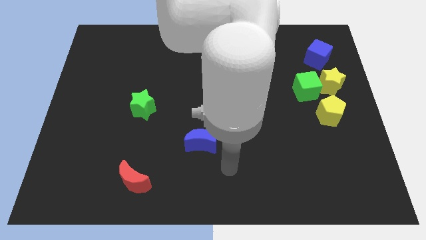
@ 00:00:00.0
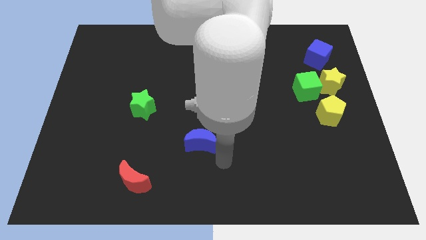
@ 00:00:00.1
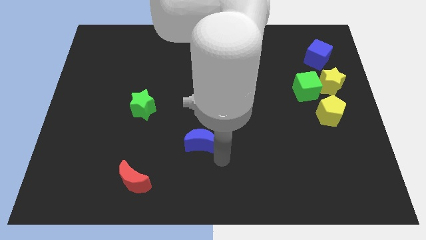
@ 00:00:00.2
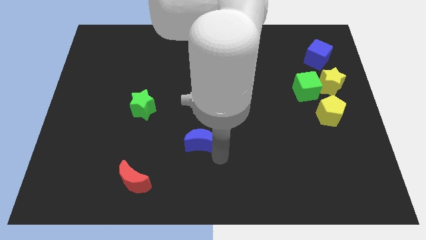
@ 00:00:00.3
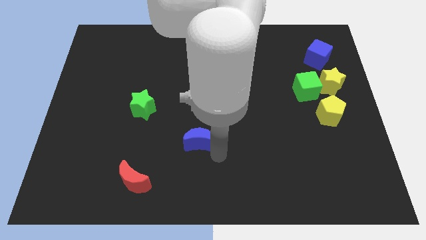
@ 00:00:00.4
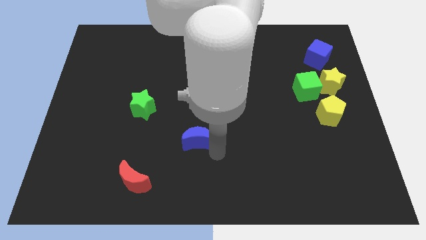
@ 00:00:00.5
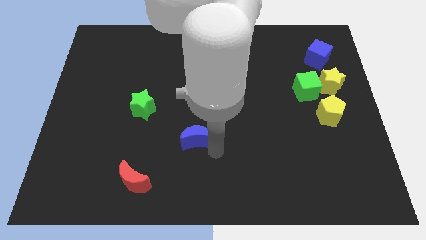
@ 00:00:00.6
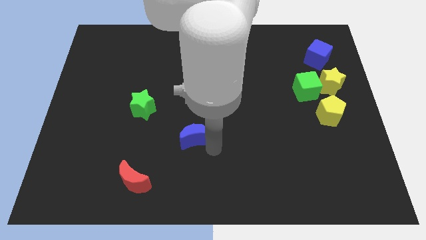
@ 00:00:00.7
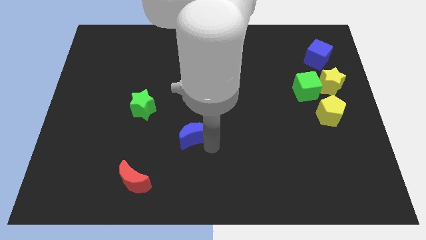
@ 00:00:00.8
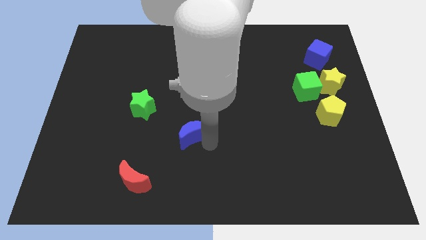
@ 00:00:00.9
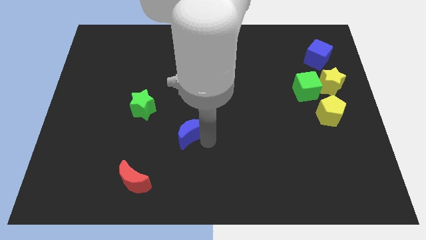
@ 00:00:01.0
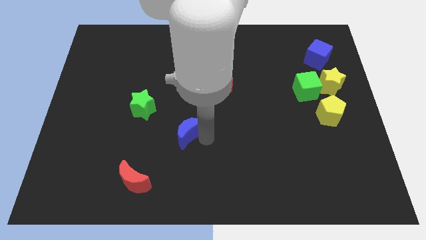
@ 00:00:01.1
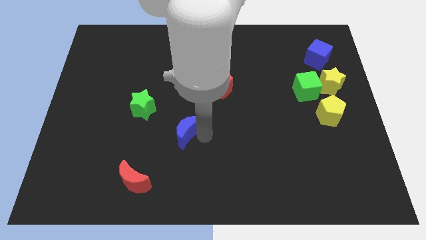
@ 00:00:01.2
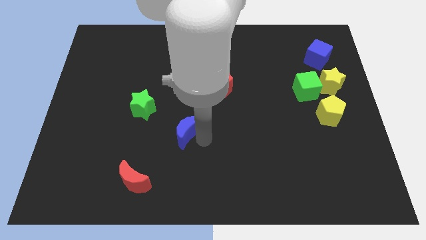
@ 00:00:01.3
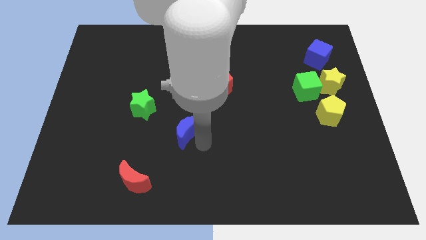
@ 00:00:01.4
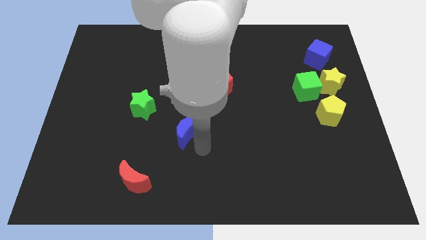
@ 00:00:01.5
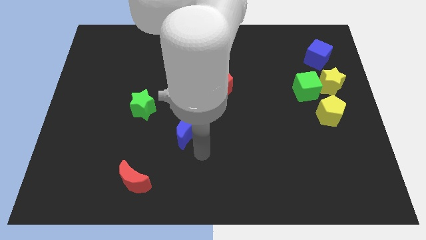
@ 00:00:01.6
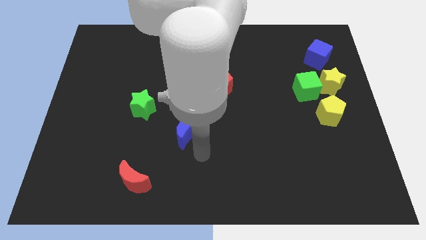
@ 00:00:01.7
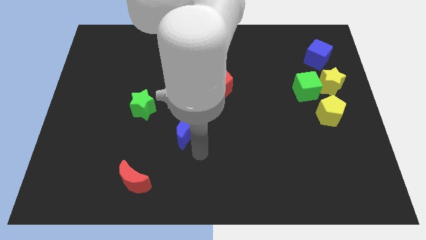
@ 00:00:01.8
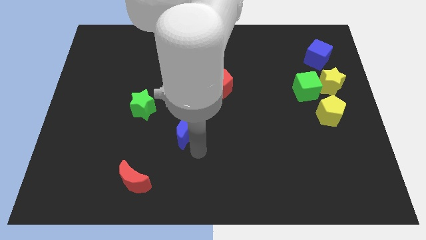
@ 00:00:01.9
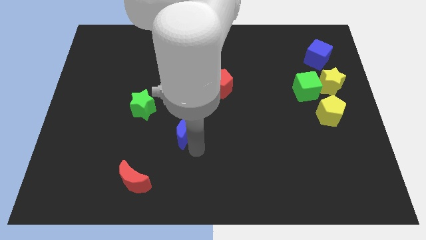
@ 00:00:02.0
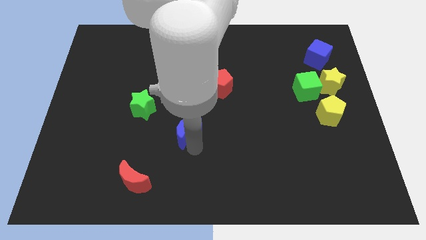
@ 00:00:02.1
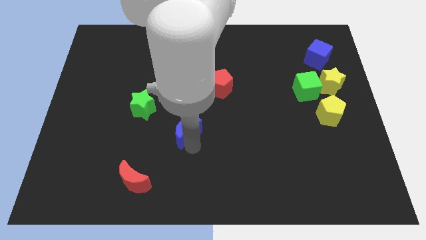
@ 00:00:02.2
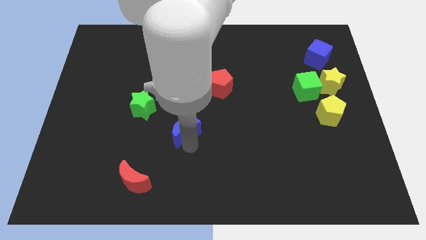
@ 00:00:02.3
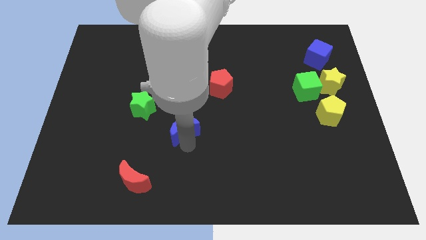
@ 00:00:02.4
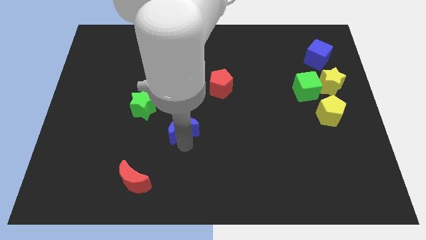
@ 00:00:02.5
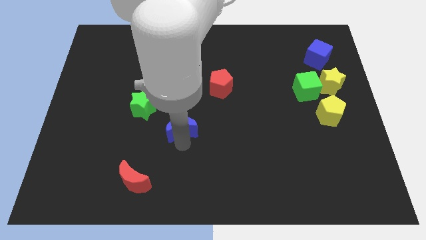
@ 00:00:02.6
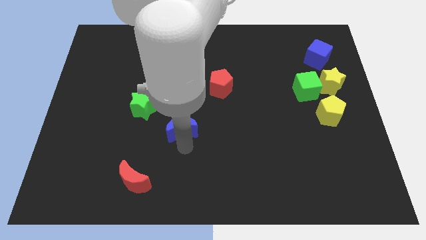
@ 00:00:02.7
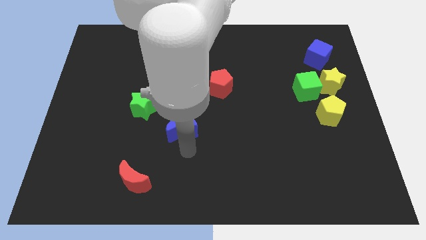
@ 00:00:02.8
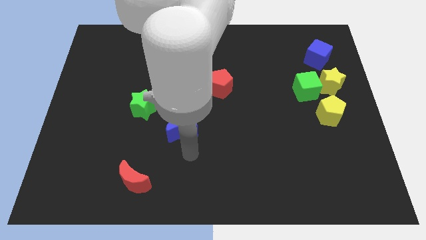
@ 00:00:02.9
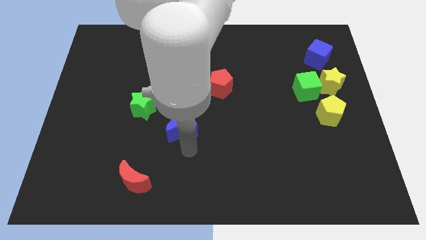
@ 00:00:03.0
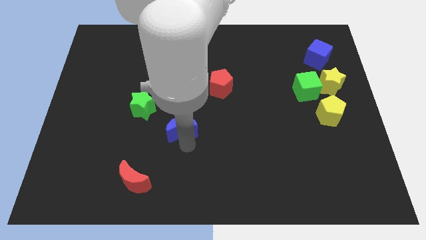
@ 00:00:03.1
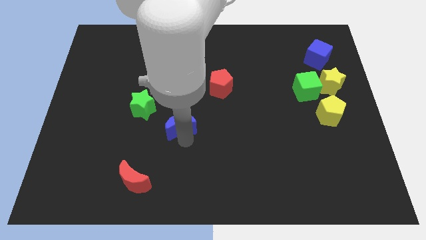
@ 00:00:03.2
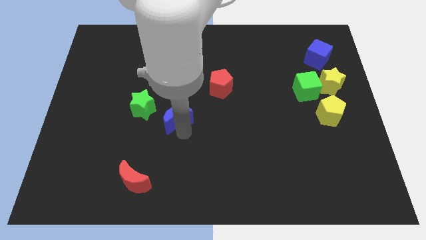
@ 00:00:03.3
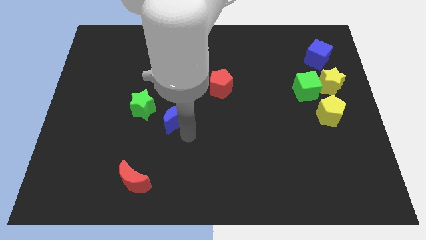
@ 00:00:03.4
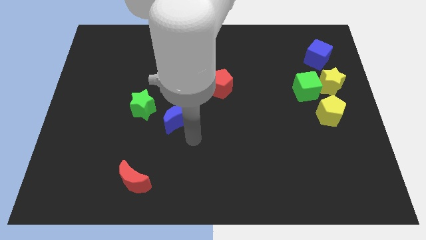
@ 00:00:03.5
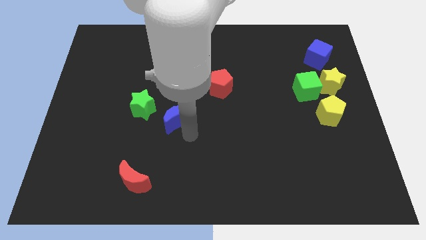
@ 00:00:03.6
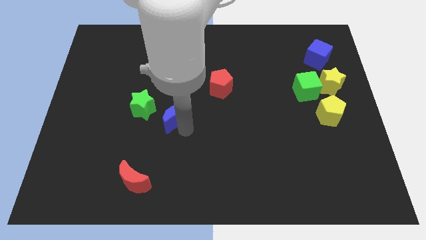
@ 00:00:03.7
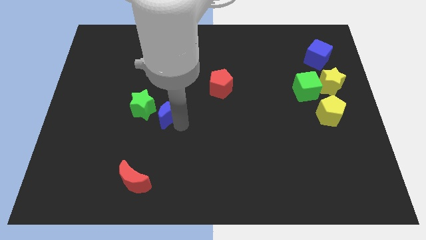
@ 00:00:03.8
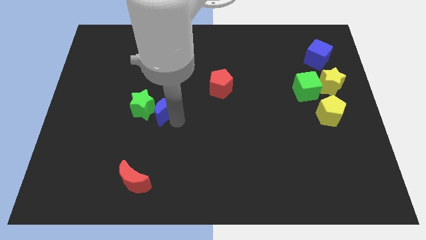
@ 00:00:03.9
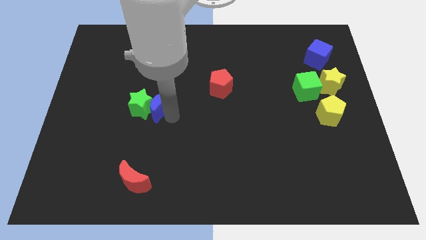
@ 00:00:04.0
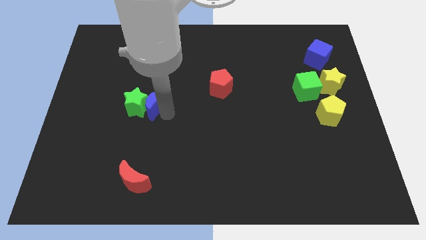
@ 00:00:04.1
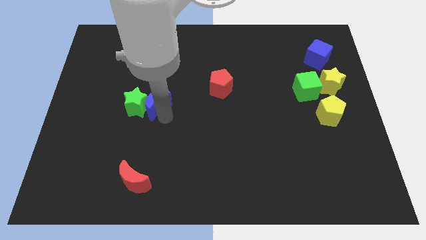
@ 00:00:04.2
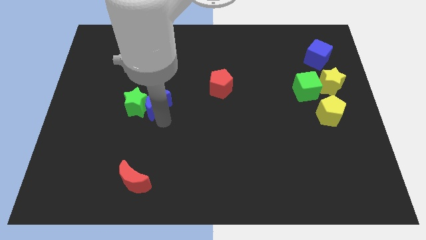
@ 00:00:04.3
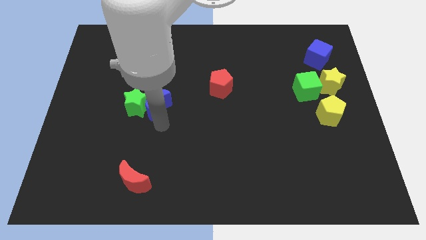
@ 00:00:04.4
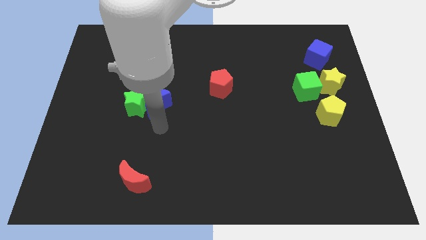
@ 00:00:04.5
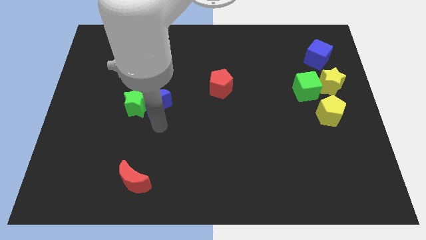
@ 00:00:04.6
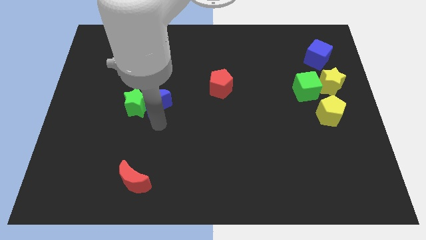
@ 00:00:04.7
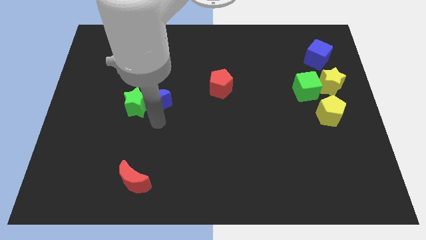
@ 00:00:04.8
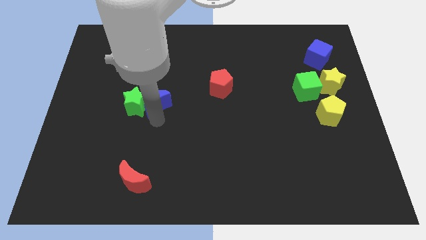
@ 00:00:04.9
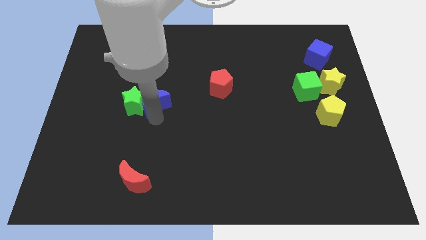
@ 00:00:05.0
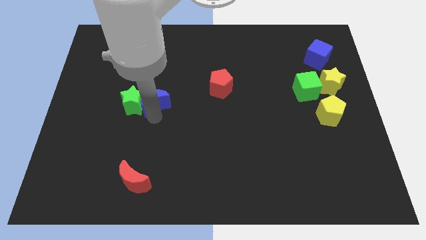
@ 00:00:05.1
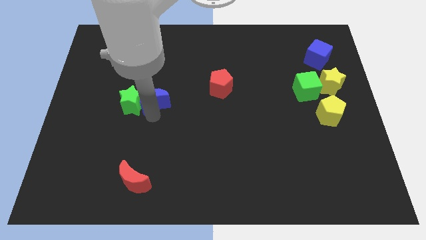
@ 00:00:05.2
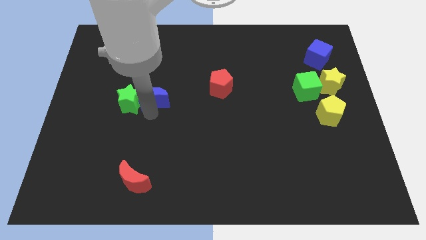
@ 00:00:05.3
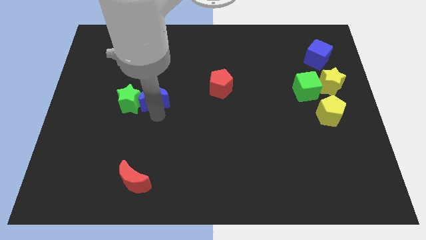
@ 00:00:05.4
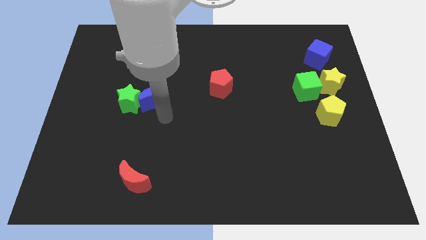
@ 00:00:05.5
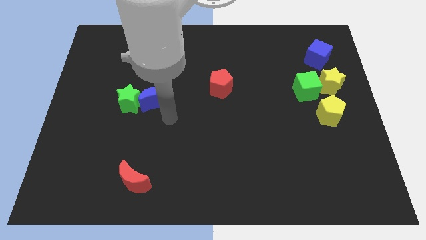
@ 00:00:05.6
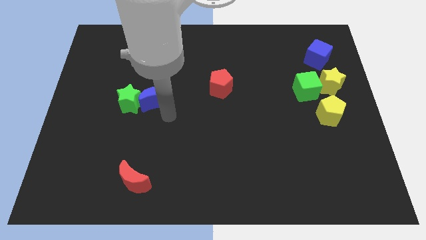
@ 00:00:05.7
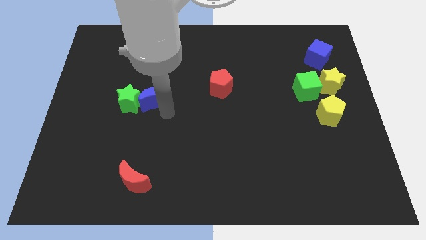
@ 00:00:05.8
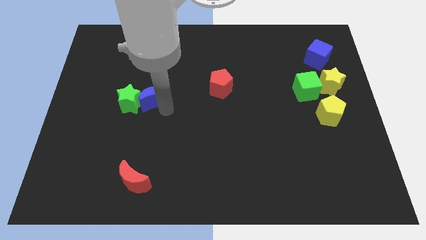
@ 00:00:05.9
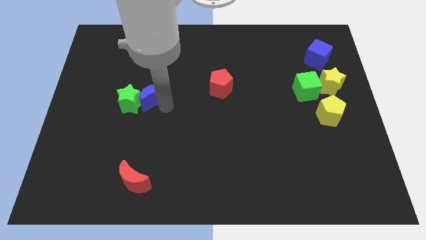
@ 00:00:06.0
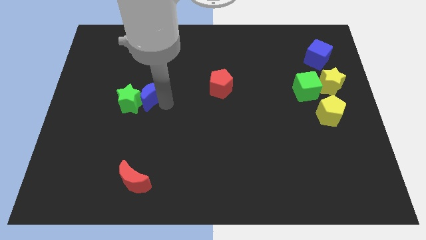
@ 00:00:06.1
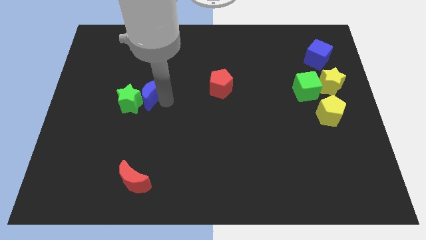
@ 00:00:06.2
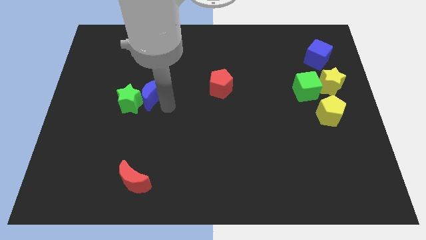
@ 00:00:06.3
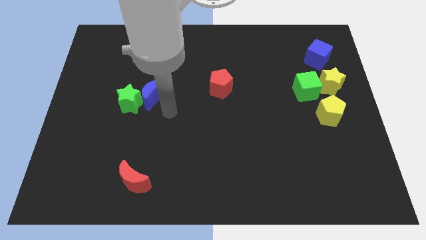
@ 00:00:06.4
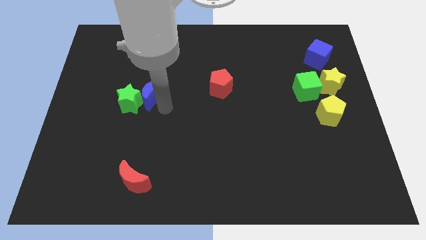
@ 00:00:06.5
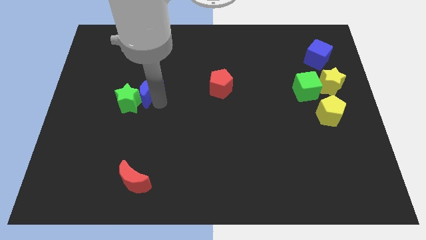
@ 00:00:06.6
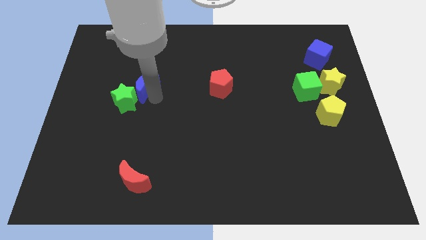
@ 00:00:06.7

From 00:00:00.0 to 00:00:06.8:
push the blue moon diagonally upwards and to the left

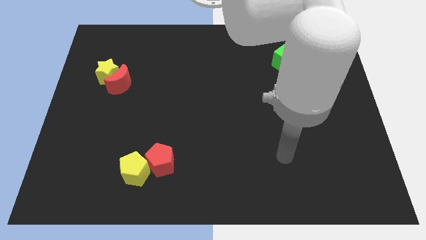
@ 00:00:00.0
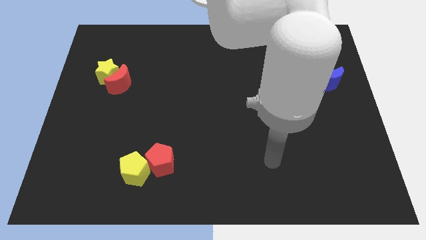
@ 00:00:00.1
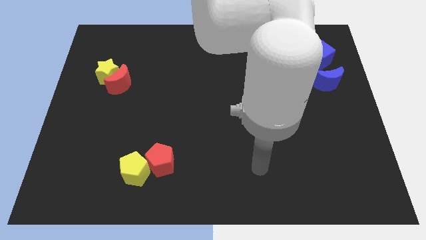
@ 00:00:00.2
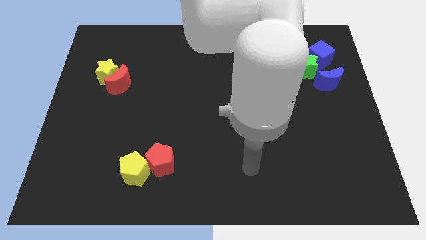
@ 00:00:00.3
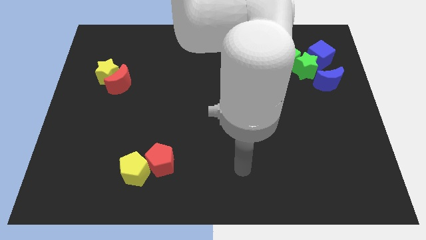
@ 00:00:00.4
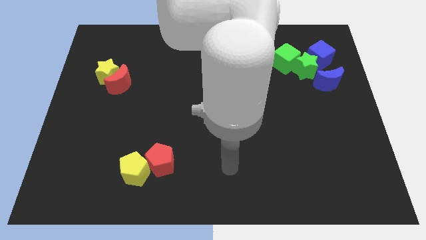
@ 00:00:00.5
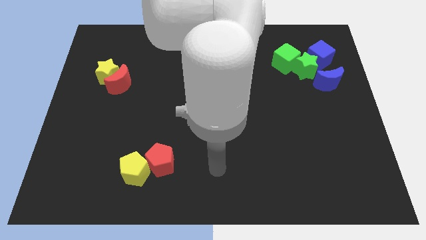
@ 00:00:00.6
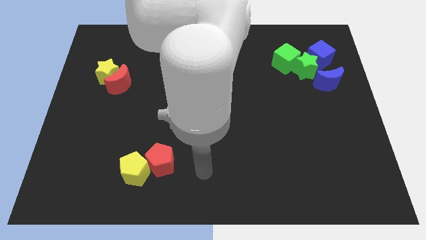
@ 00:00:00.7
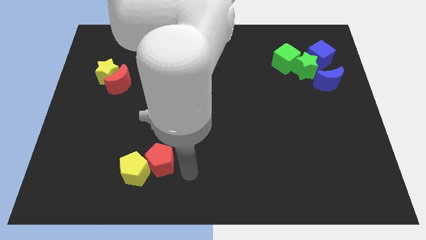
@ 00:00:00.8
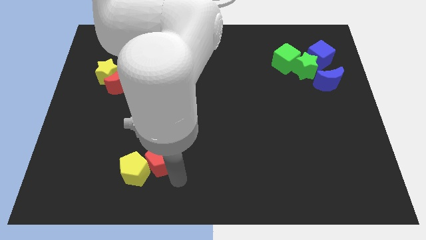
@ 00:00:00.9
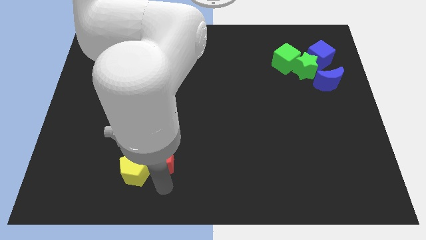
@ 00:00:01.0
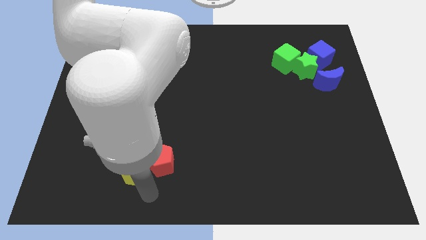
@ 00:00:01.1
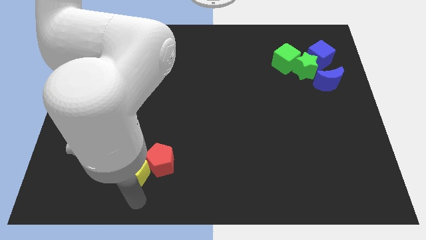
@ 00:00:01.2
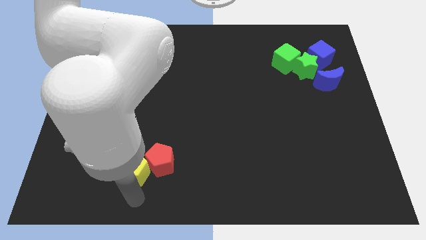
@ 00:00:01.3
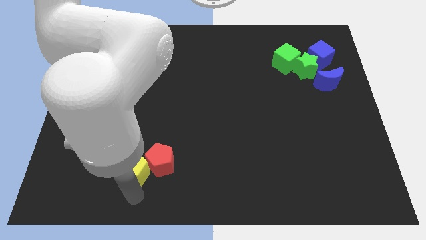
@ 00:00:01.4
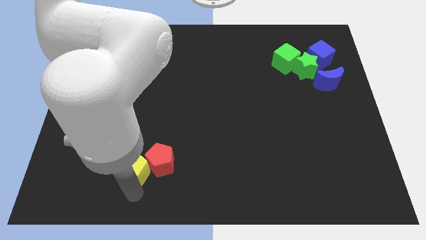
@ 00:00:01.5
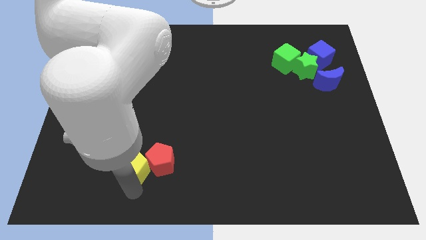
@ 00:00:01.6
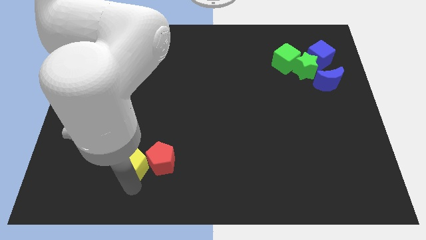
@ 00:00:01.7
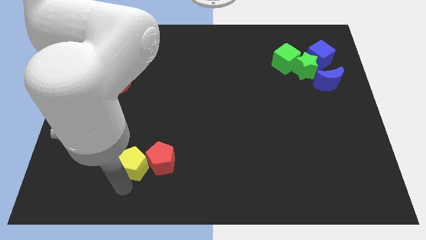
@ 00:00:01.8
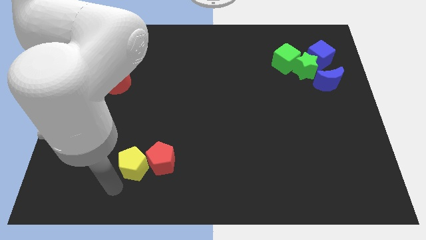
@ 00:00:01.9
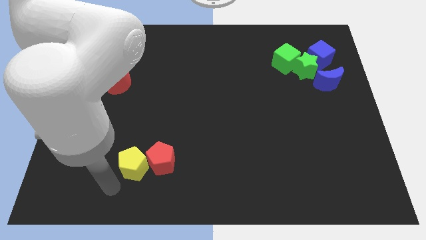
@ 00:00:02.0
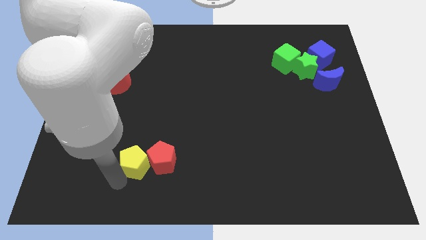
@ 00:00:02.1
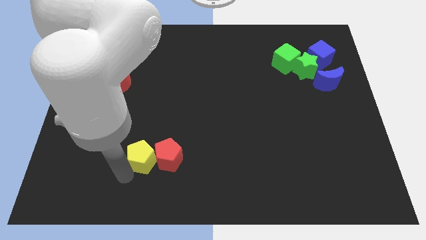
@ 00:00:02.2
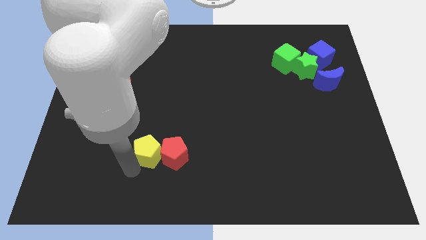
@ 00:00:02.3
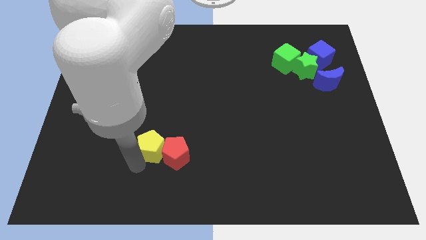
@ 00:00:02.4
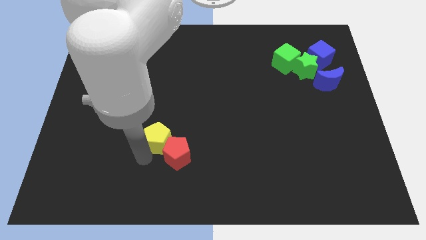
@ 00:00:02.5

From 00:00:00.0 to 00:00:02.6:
slide the yellow pentagon up and right diagonally a little bit
